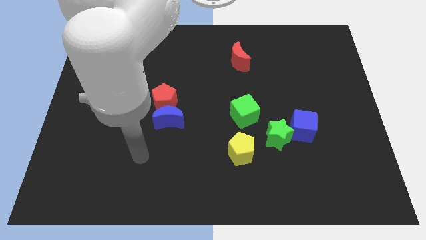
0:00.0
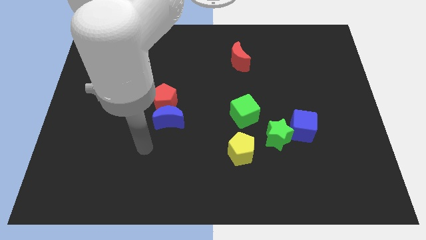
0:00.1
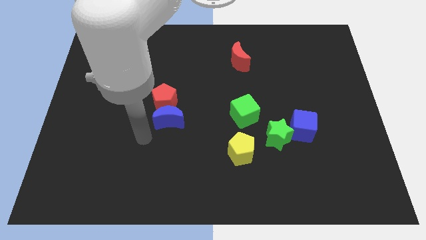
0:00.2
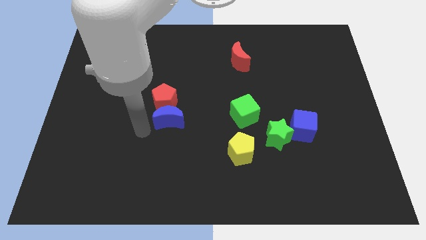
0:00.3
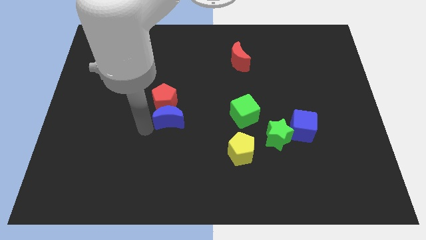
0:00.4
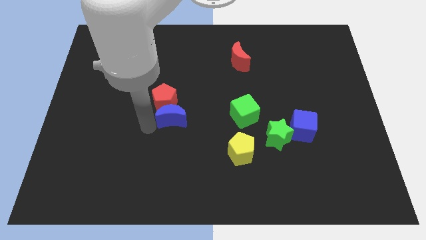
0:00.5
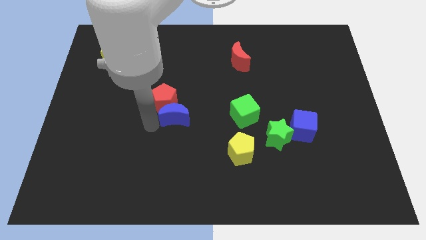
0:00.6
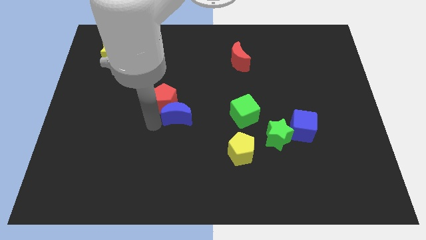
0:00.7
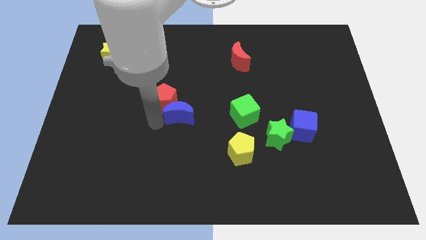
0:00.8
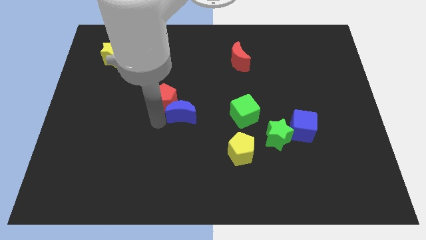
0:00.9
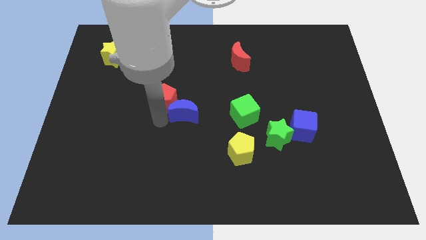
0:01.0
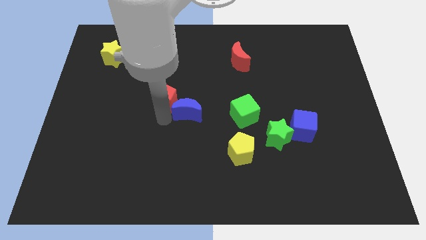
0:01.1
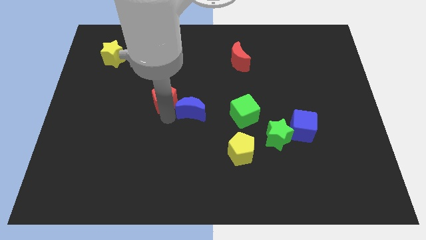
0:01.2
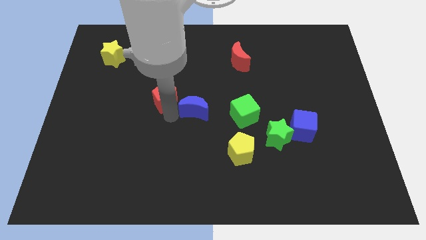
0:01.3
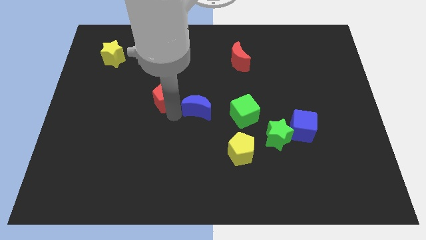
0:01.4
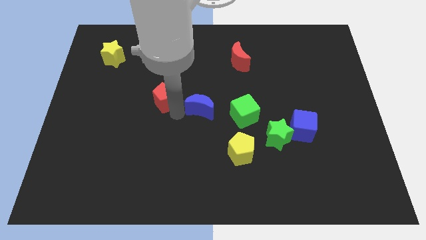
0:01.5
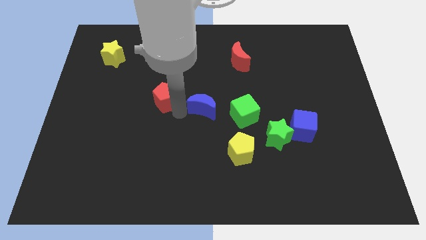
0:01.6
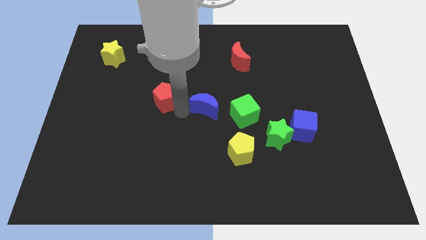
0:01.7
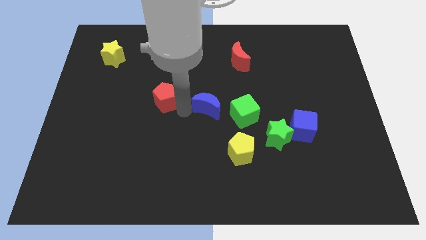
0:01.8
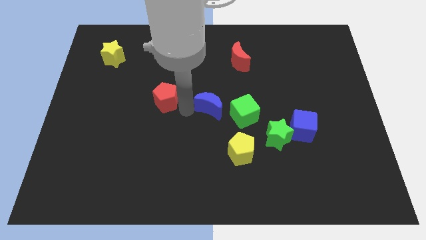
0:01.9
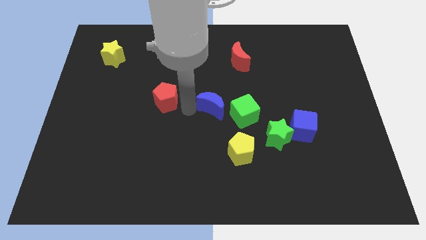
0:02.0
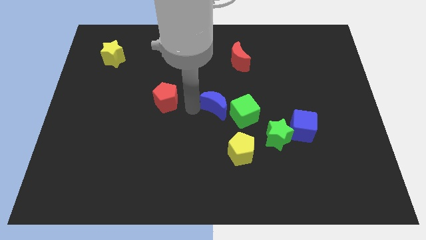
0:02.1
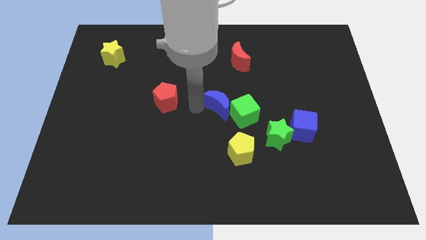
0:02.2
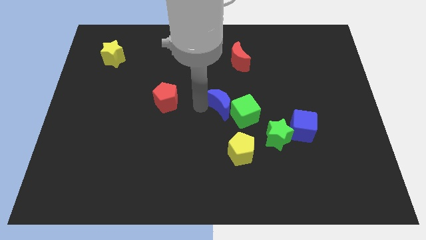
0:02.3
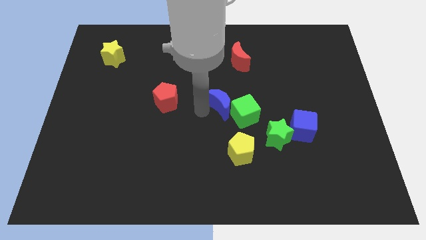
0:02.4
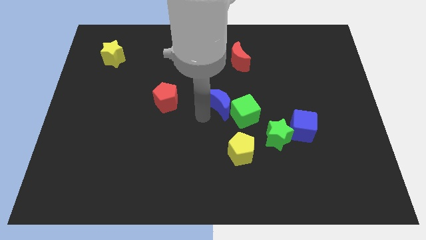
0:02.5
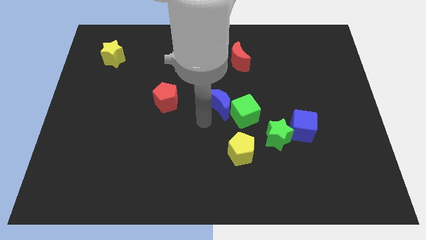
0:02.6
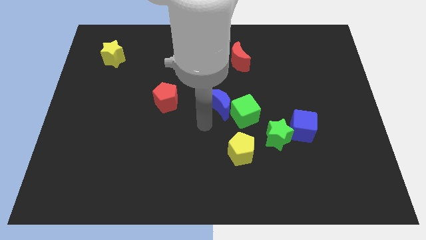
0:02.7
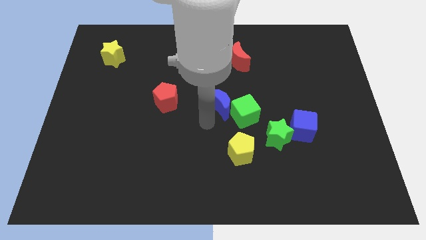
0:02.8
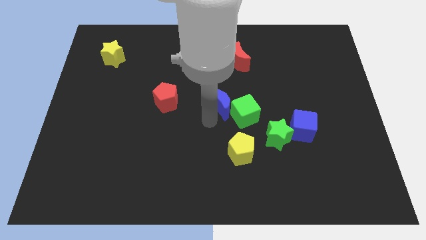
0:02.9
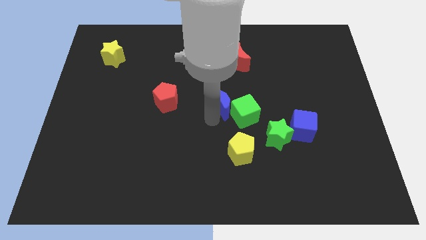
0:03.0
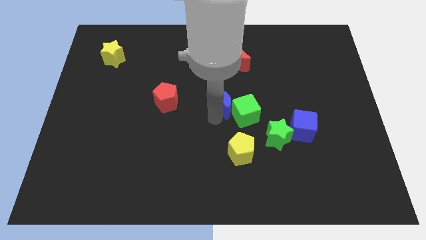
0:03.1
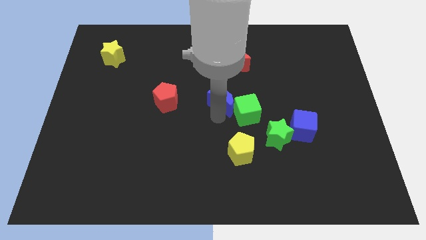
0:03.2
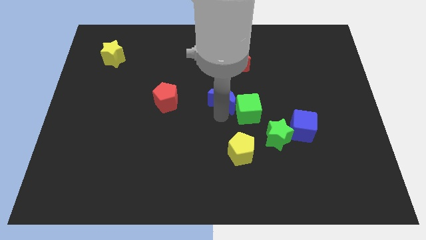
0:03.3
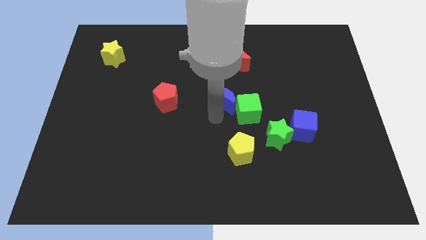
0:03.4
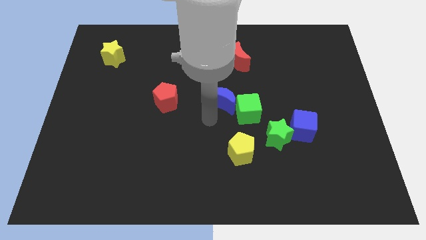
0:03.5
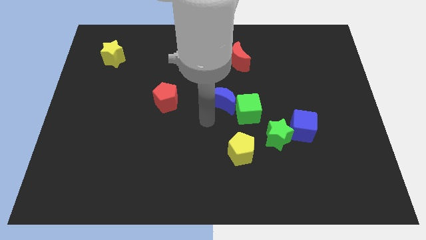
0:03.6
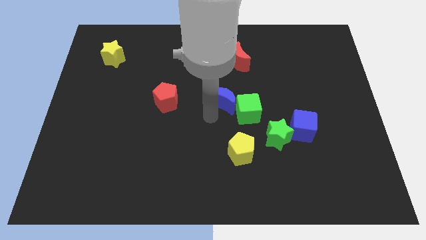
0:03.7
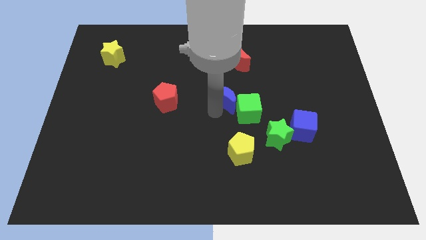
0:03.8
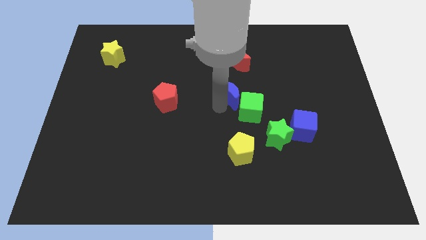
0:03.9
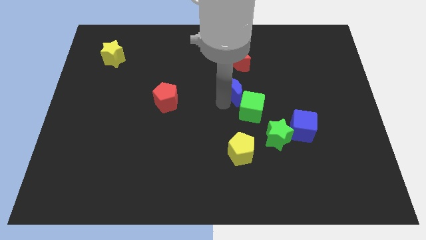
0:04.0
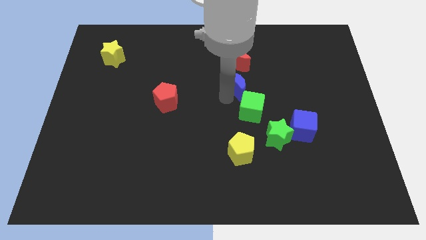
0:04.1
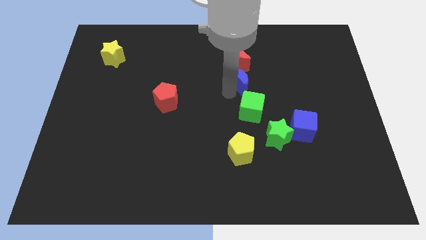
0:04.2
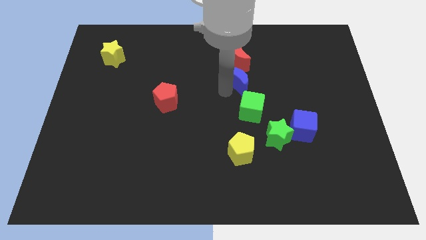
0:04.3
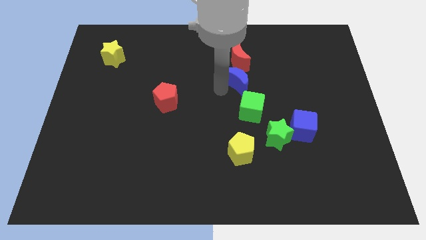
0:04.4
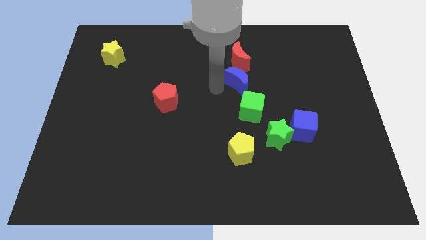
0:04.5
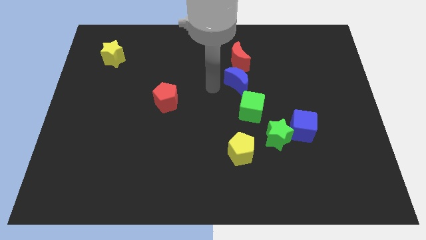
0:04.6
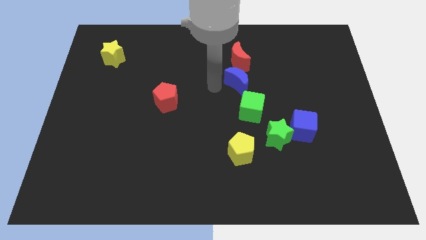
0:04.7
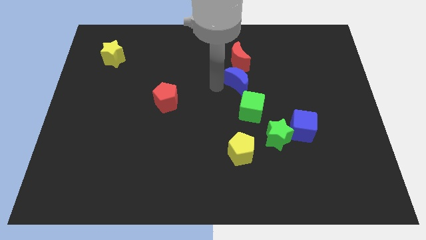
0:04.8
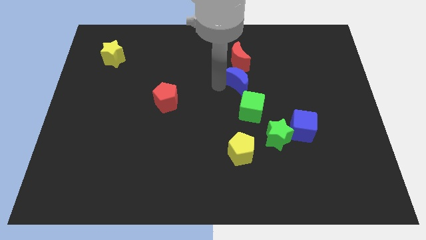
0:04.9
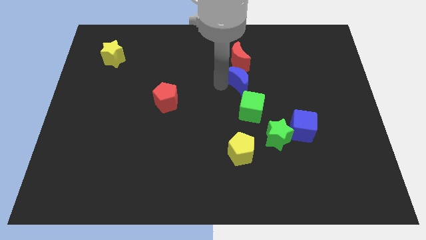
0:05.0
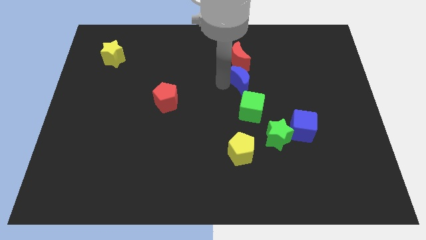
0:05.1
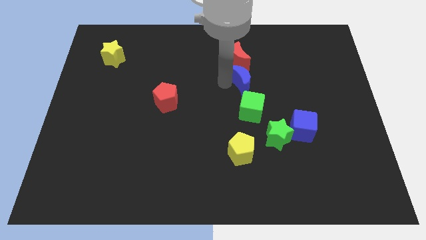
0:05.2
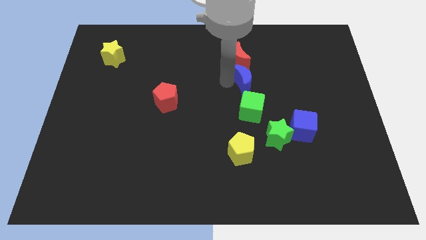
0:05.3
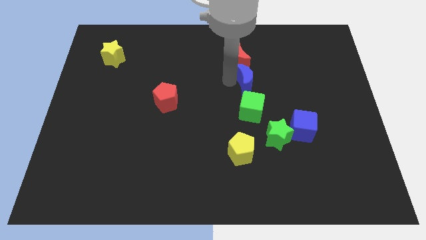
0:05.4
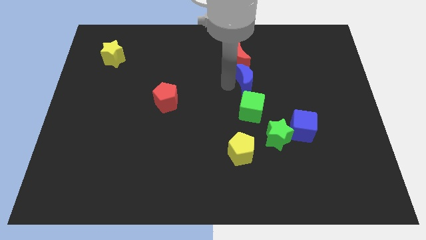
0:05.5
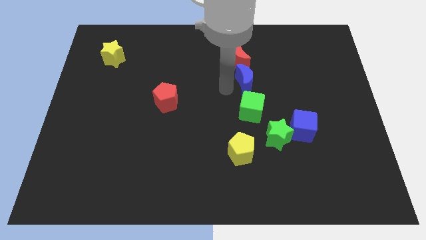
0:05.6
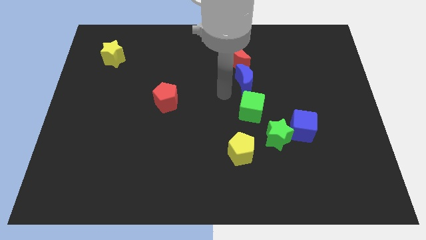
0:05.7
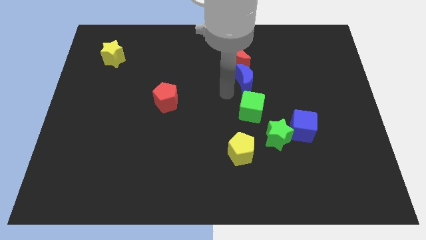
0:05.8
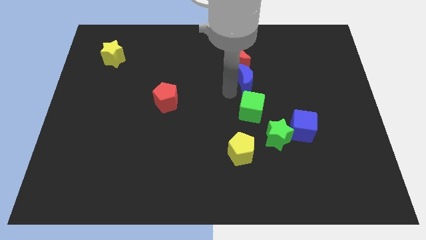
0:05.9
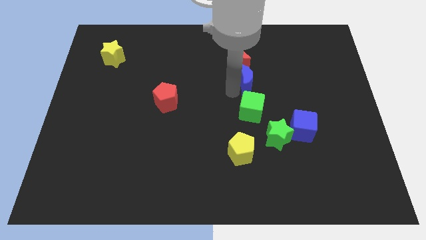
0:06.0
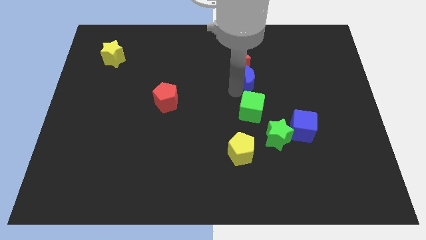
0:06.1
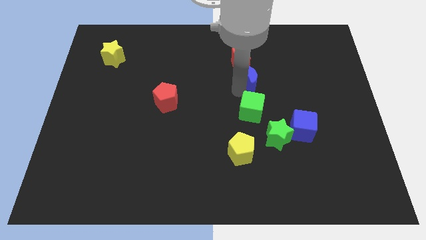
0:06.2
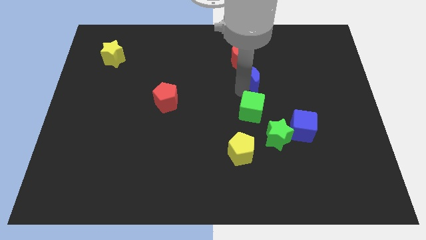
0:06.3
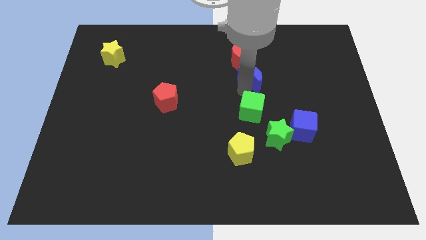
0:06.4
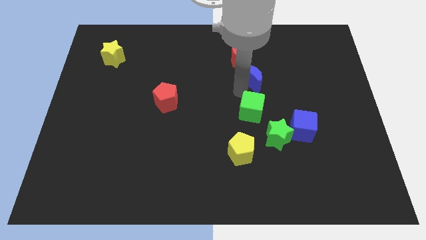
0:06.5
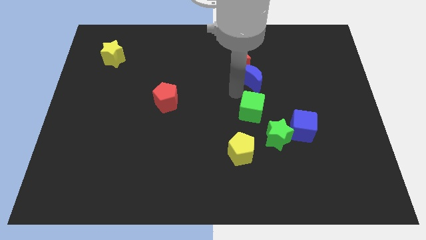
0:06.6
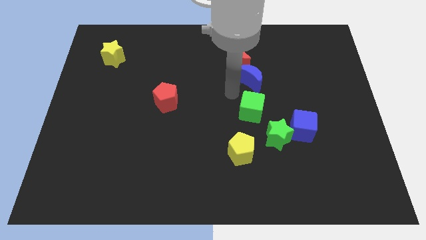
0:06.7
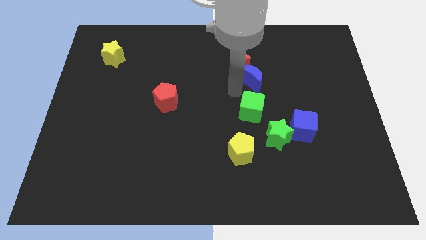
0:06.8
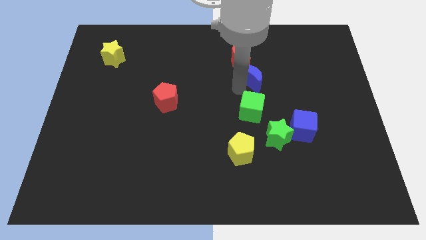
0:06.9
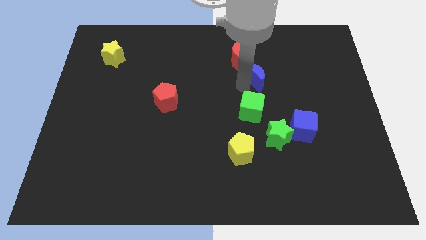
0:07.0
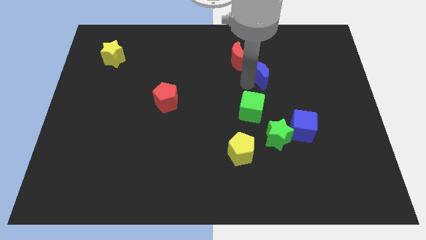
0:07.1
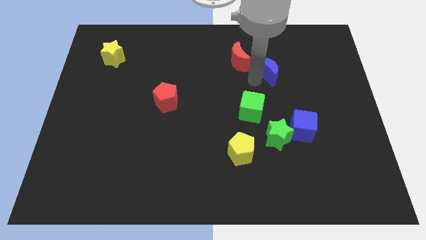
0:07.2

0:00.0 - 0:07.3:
move the blue moon just right of the red moon

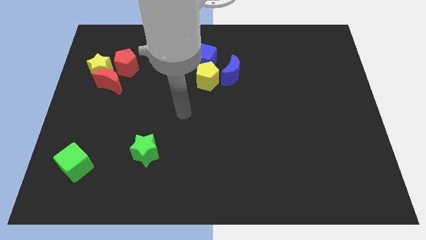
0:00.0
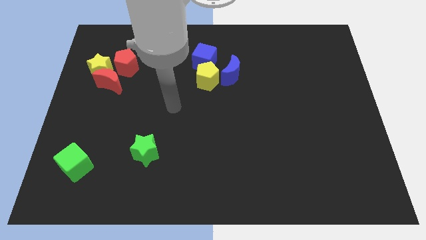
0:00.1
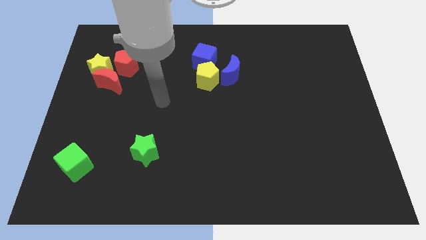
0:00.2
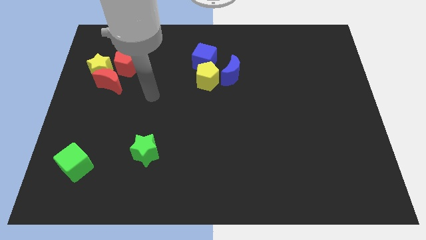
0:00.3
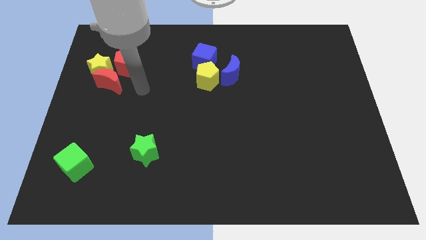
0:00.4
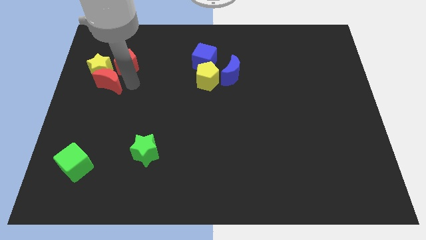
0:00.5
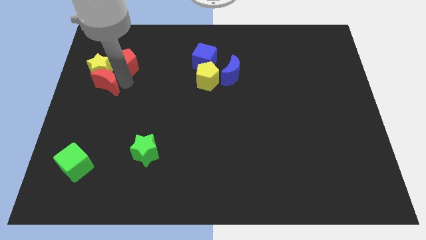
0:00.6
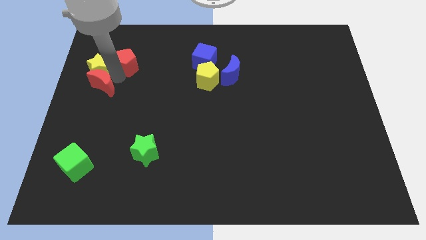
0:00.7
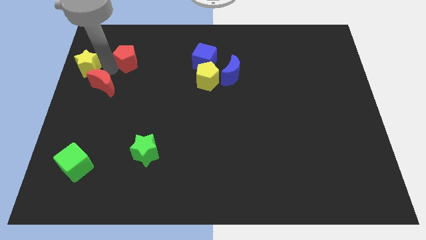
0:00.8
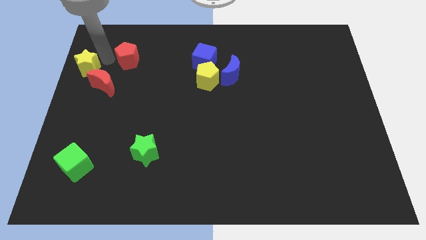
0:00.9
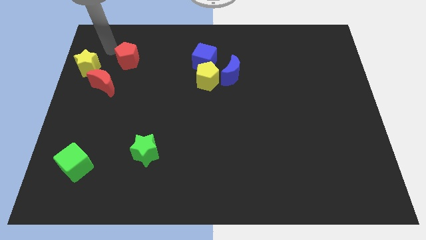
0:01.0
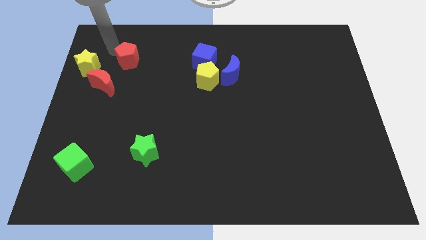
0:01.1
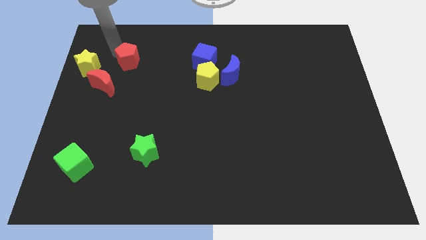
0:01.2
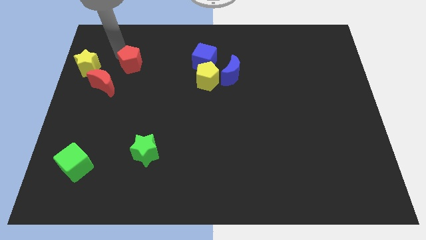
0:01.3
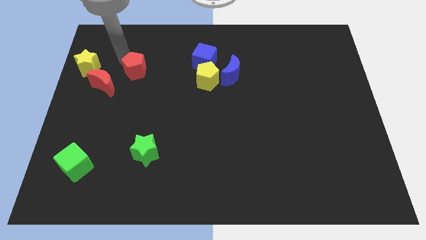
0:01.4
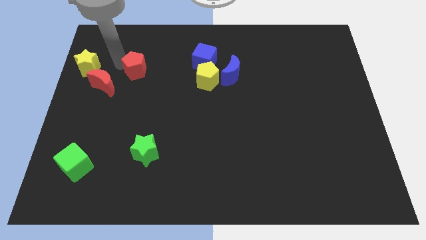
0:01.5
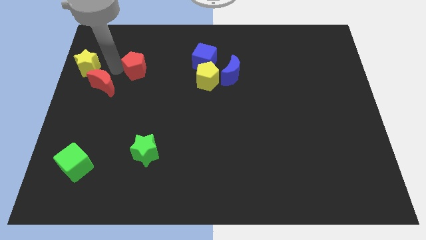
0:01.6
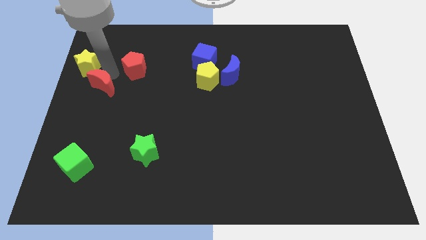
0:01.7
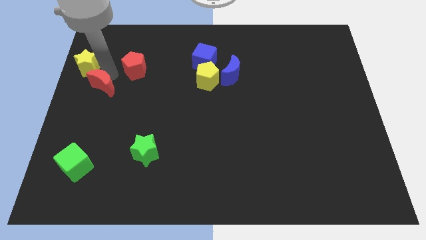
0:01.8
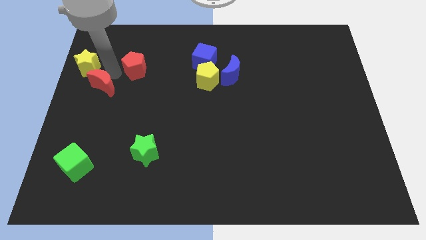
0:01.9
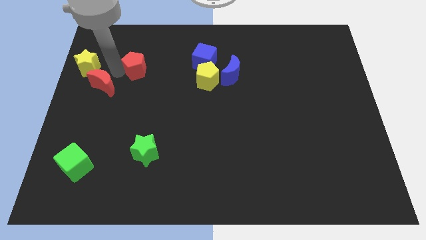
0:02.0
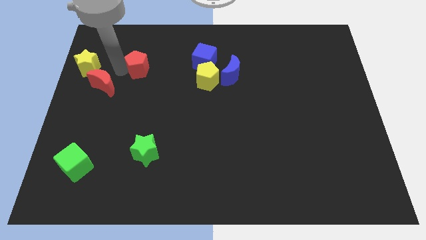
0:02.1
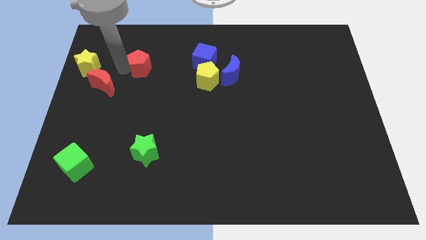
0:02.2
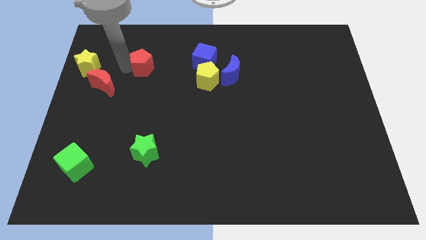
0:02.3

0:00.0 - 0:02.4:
slide the red pentagon just left of the blue cube
